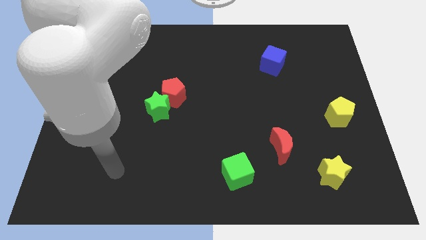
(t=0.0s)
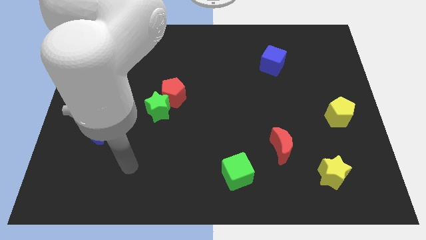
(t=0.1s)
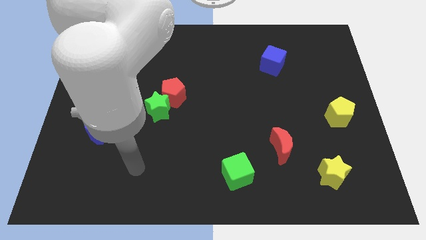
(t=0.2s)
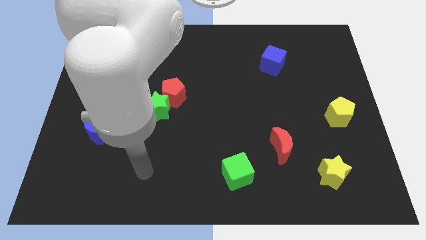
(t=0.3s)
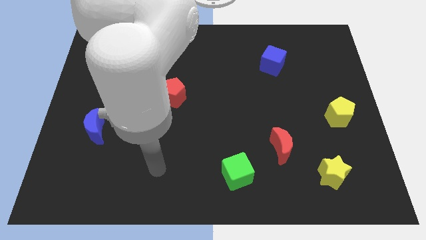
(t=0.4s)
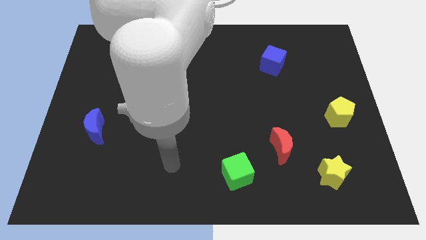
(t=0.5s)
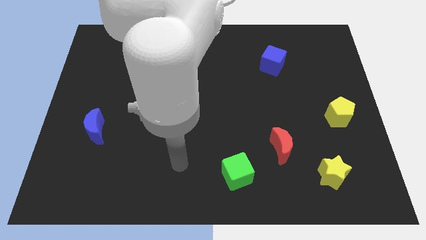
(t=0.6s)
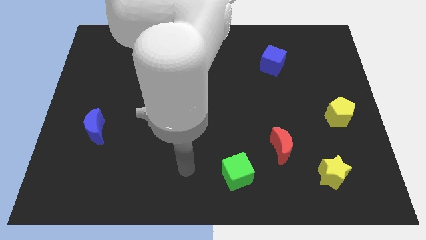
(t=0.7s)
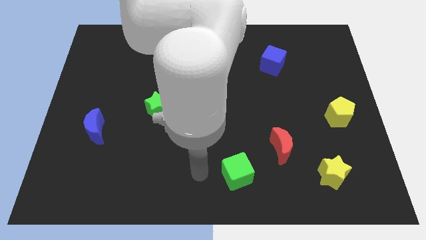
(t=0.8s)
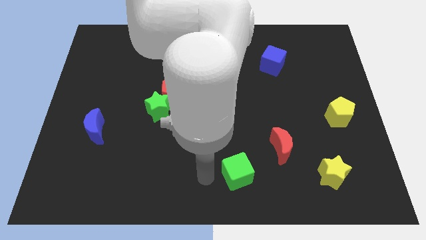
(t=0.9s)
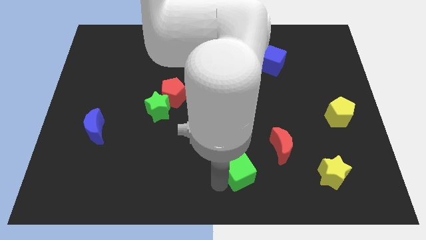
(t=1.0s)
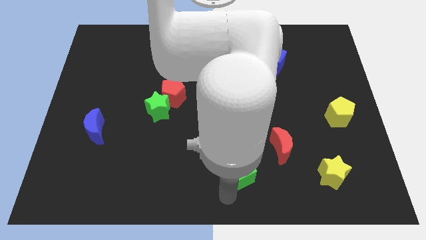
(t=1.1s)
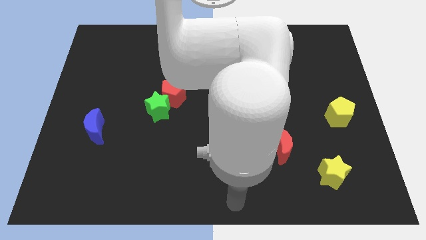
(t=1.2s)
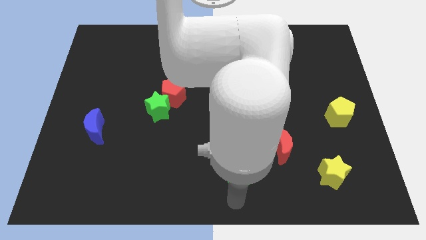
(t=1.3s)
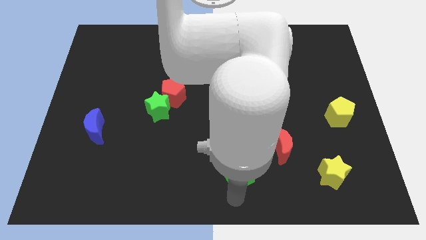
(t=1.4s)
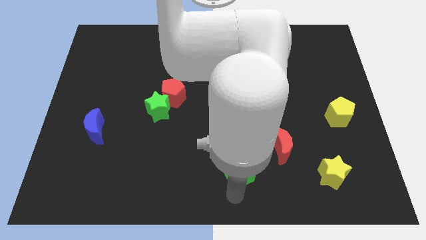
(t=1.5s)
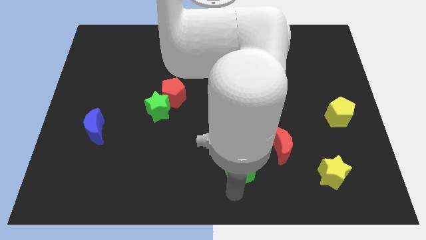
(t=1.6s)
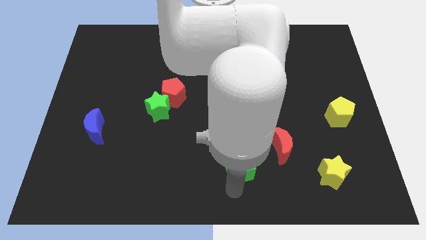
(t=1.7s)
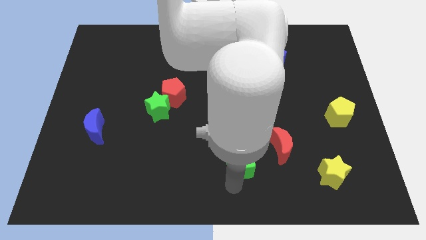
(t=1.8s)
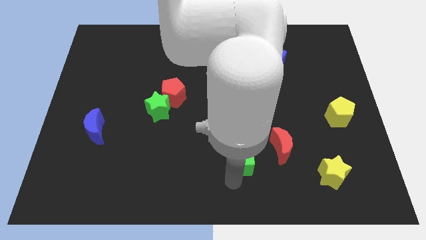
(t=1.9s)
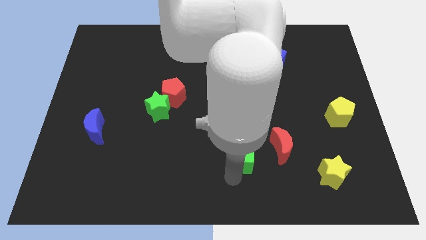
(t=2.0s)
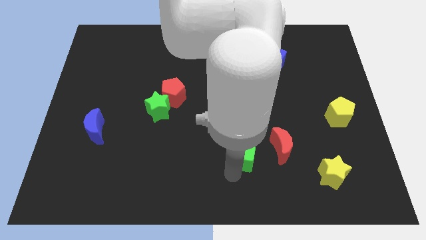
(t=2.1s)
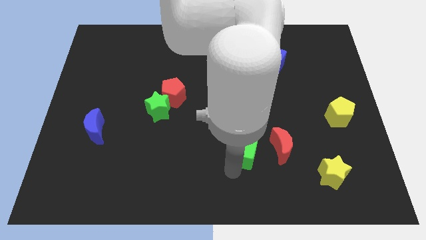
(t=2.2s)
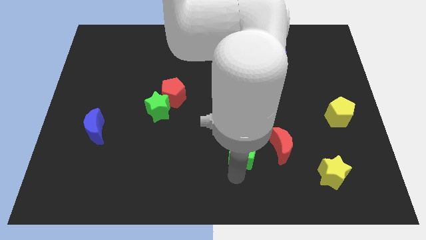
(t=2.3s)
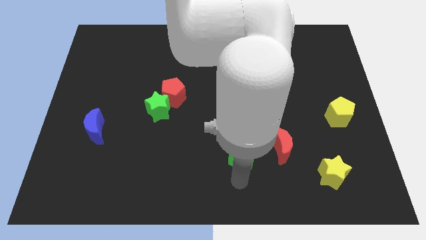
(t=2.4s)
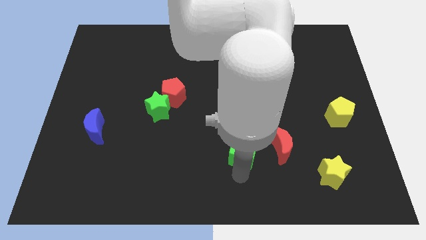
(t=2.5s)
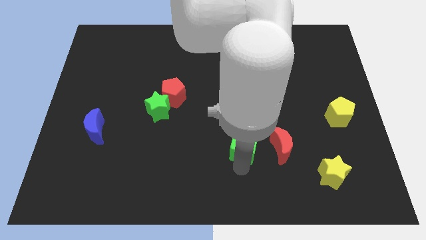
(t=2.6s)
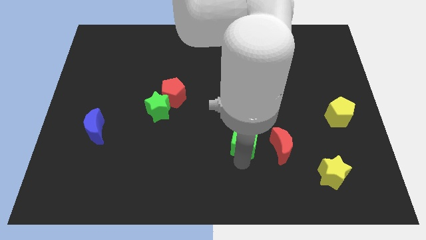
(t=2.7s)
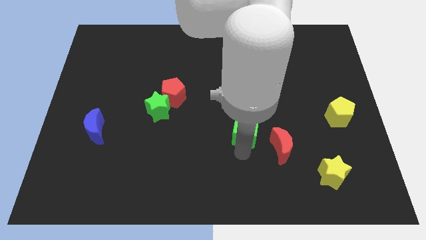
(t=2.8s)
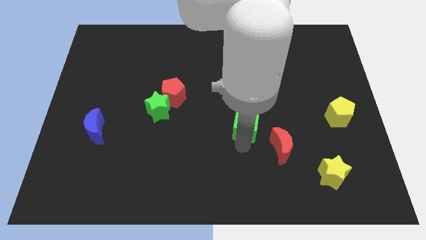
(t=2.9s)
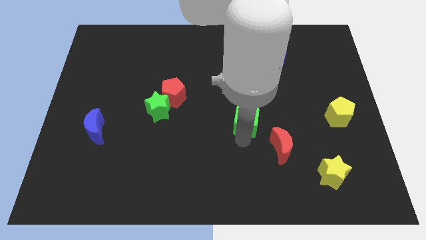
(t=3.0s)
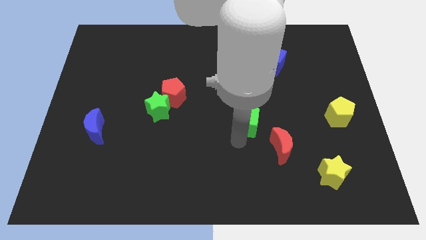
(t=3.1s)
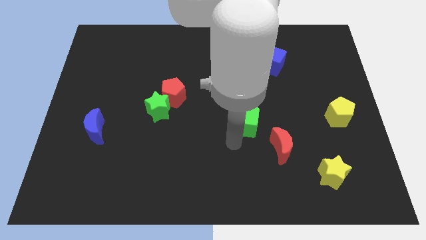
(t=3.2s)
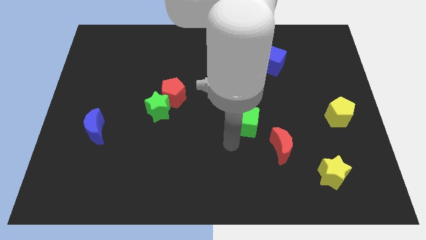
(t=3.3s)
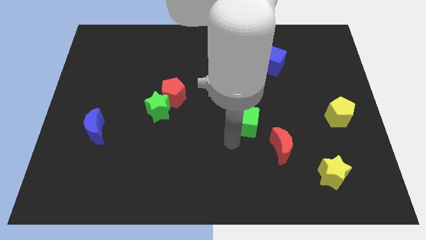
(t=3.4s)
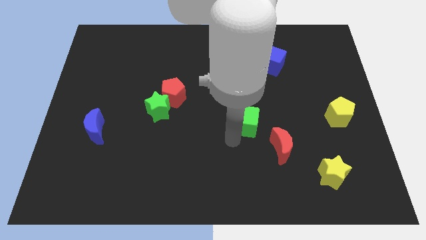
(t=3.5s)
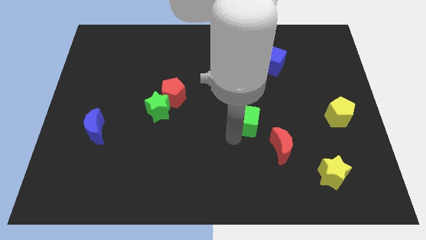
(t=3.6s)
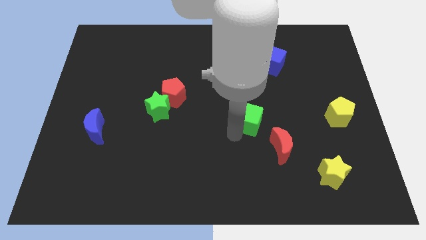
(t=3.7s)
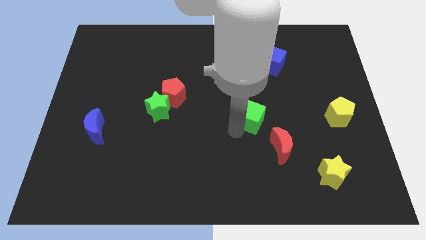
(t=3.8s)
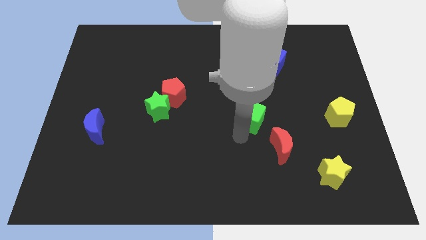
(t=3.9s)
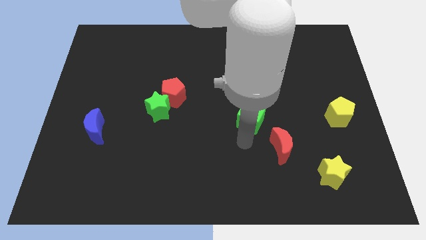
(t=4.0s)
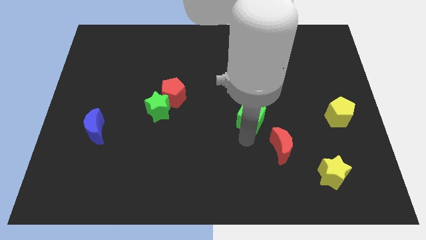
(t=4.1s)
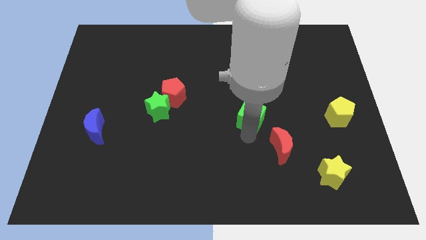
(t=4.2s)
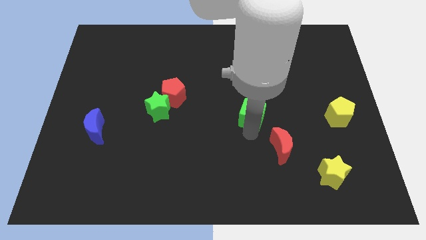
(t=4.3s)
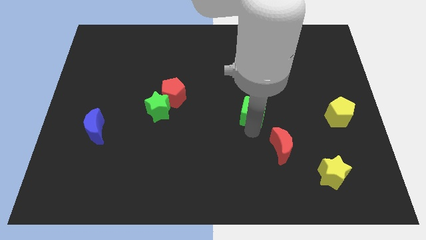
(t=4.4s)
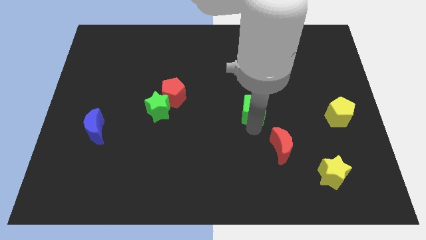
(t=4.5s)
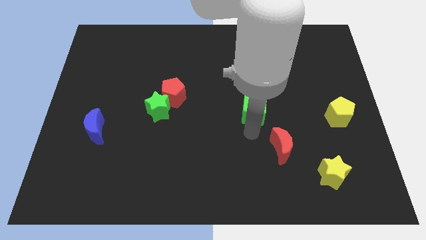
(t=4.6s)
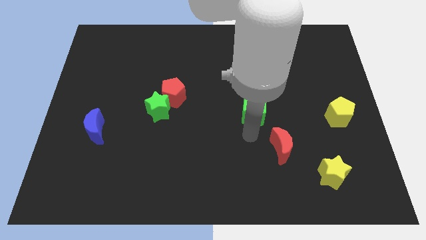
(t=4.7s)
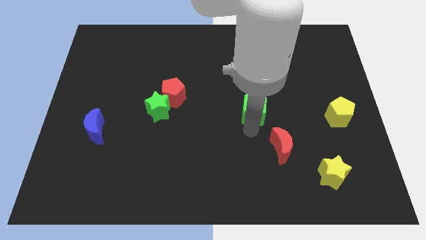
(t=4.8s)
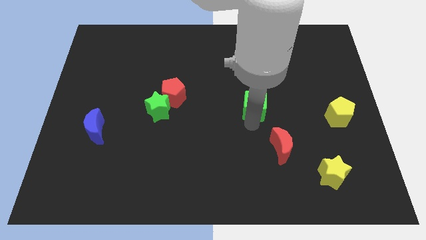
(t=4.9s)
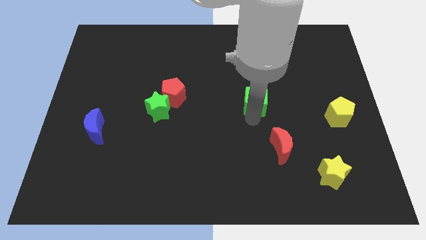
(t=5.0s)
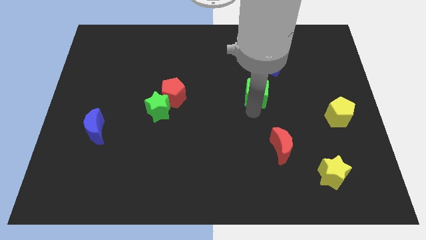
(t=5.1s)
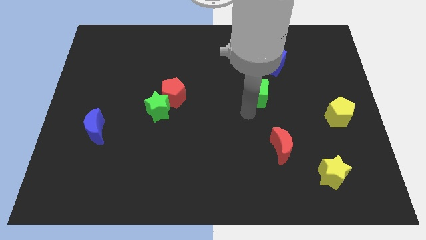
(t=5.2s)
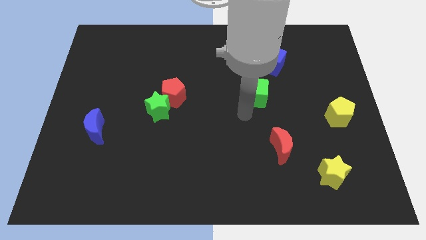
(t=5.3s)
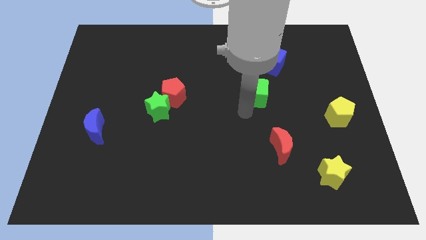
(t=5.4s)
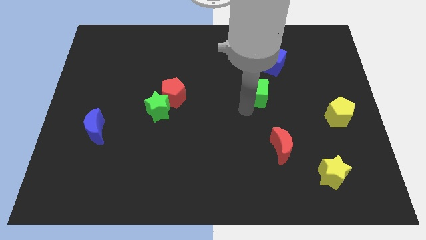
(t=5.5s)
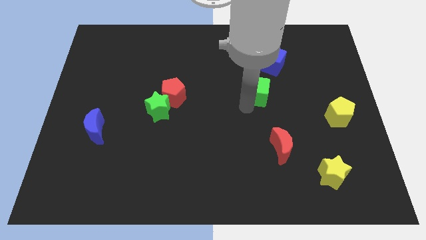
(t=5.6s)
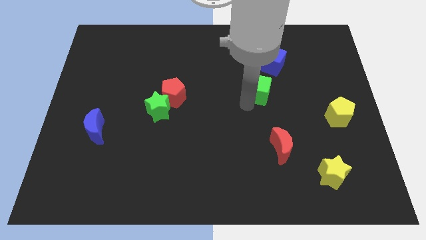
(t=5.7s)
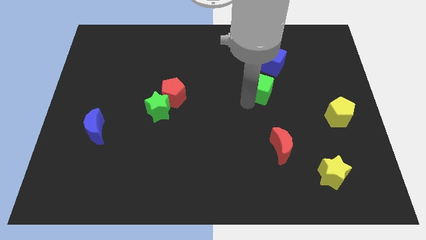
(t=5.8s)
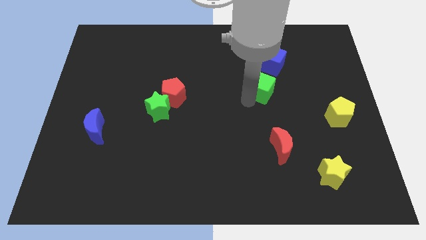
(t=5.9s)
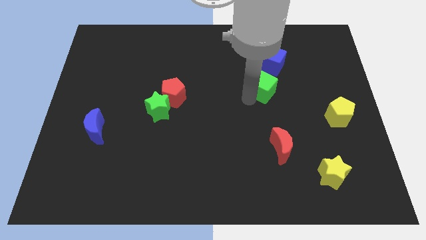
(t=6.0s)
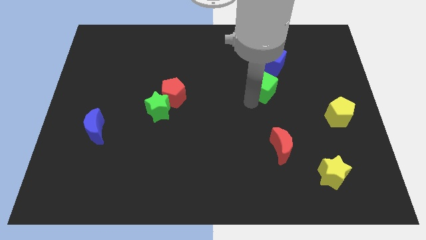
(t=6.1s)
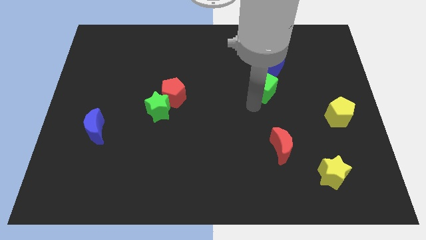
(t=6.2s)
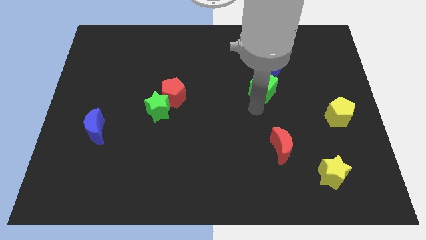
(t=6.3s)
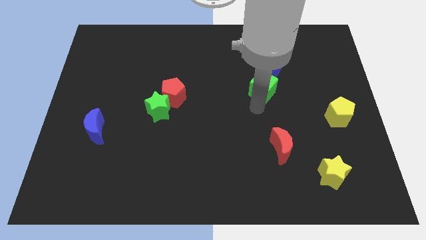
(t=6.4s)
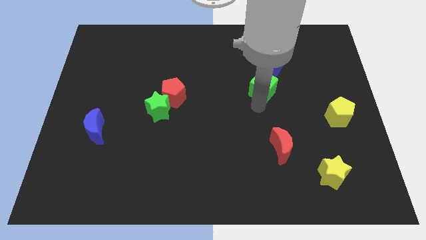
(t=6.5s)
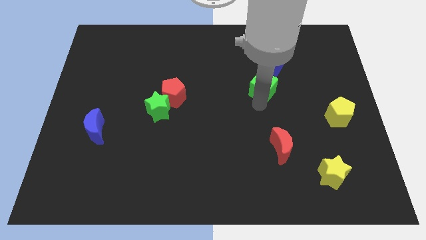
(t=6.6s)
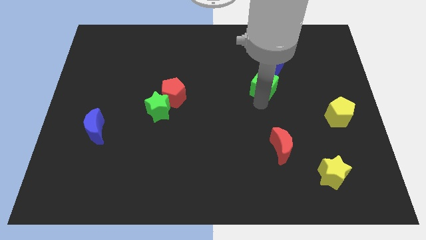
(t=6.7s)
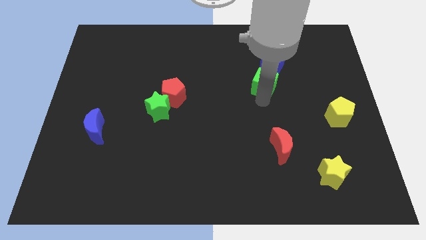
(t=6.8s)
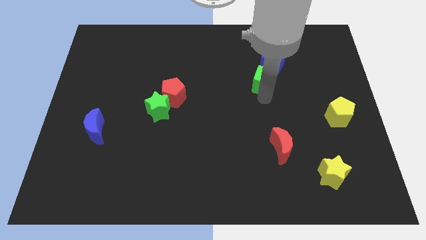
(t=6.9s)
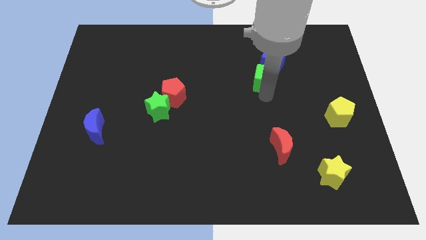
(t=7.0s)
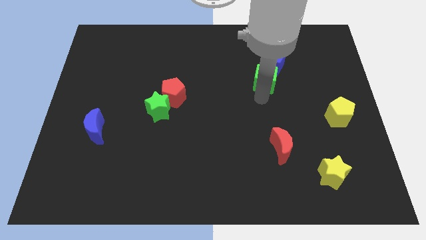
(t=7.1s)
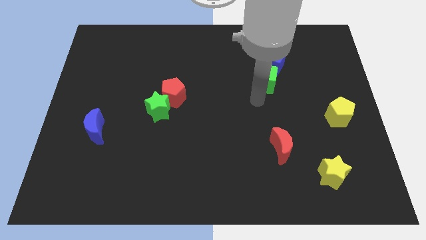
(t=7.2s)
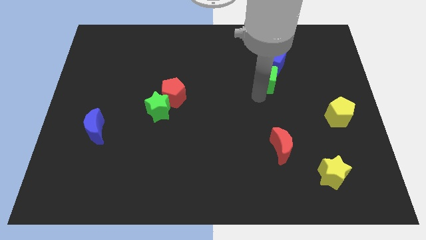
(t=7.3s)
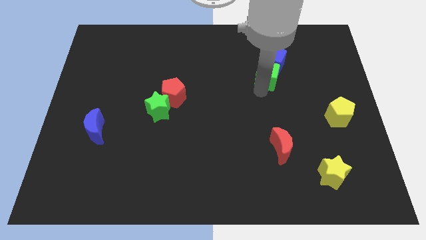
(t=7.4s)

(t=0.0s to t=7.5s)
move the green cube close to the blue cube
